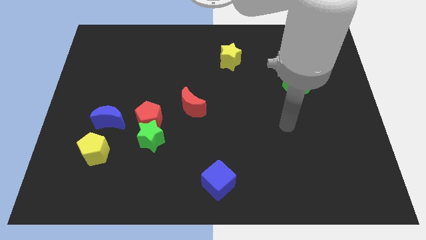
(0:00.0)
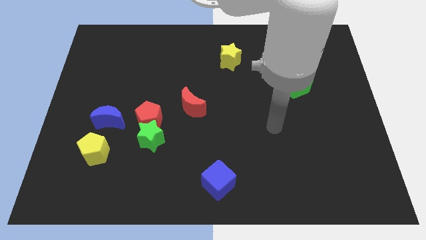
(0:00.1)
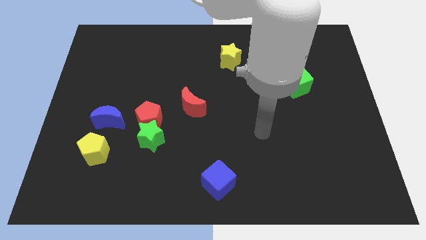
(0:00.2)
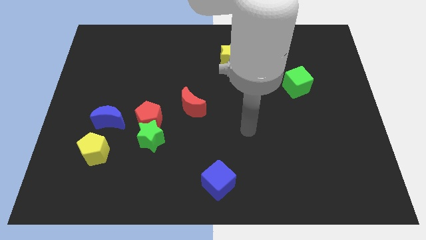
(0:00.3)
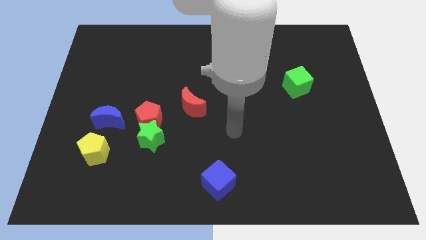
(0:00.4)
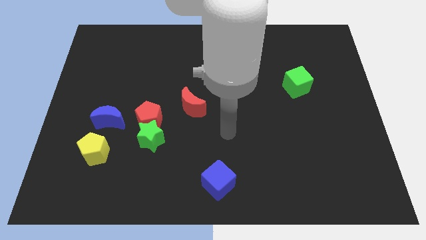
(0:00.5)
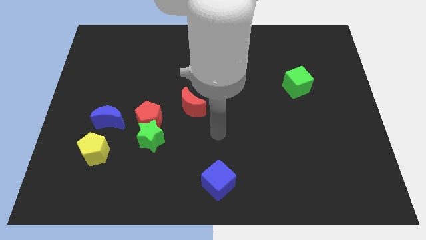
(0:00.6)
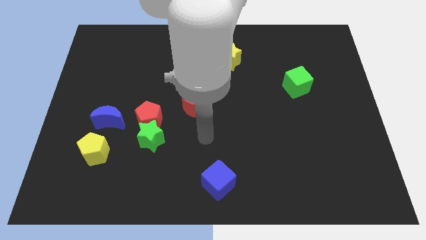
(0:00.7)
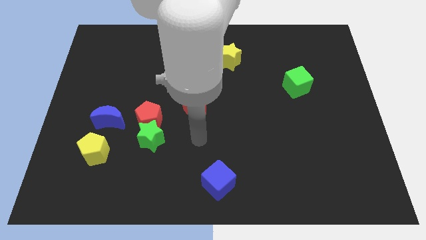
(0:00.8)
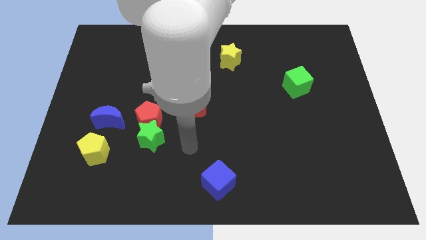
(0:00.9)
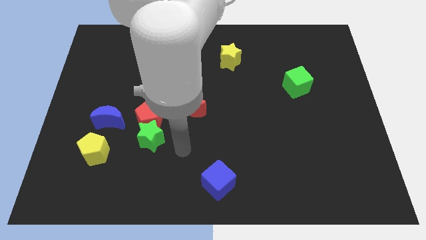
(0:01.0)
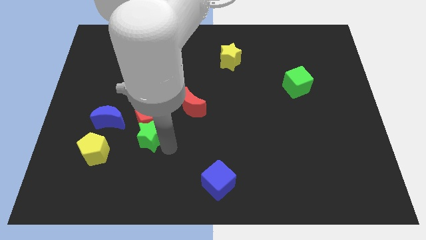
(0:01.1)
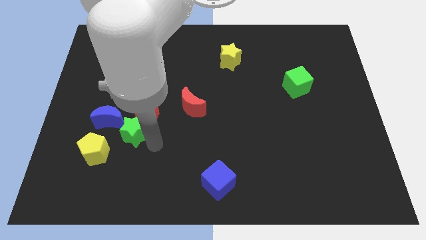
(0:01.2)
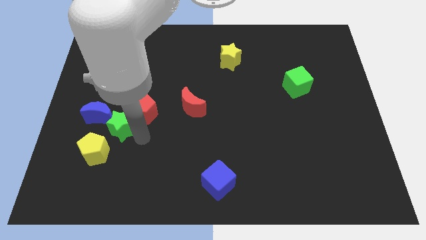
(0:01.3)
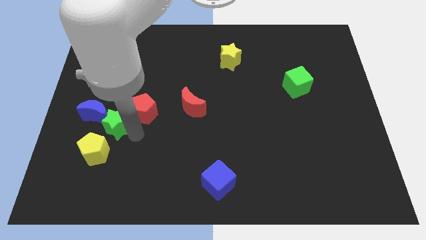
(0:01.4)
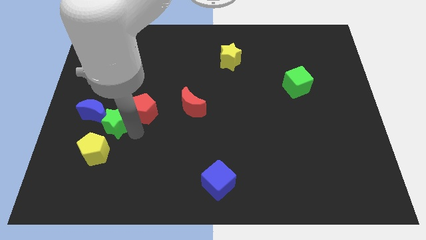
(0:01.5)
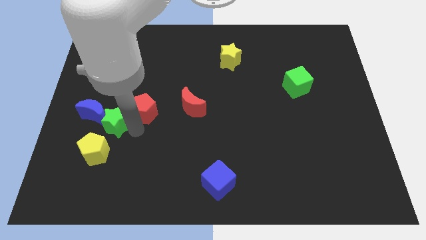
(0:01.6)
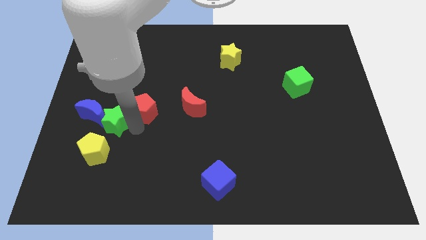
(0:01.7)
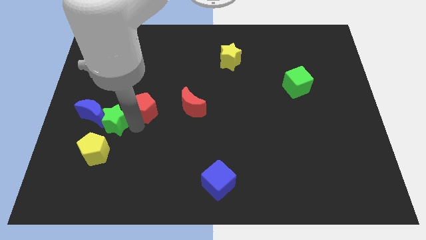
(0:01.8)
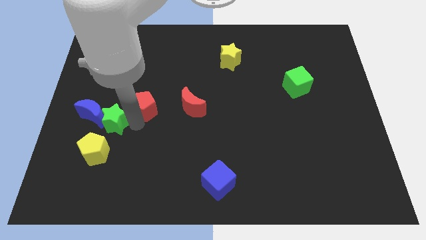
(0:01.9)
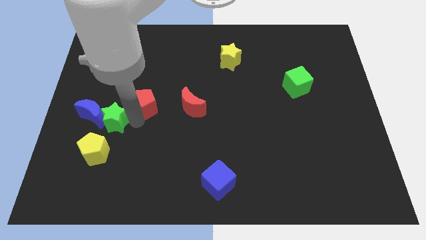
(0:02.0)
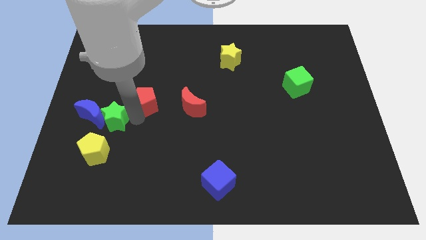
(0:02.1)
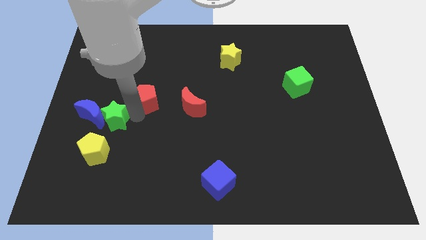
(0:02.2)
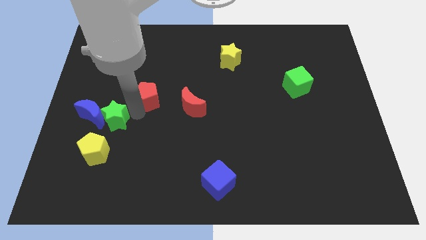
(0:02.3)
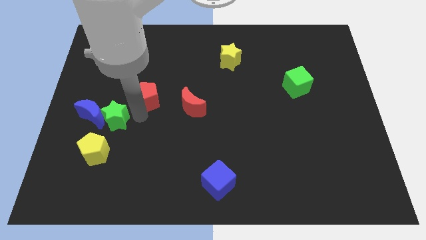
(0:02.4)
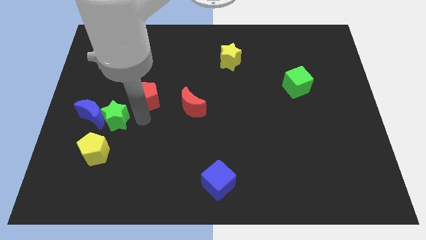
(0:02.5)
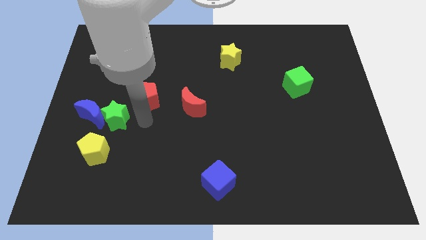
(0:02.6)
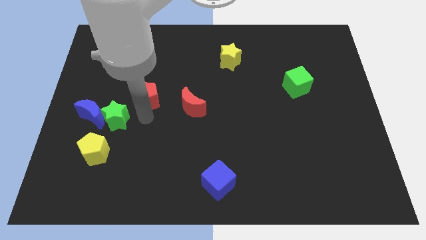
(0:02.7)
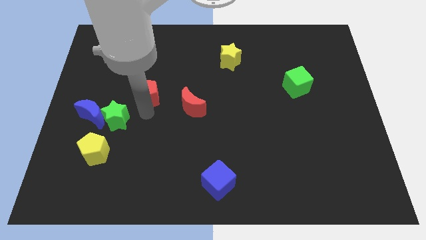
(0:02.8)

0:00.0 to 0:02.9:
slightly slide the red pentagon upwards

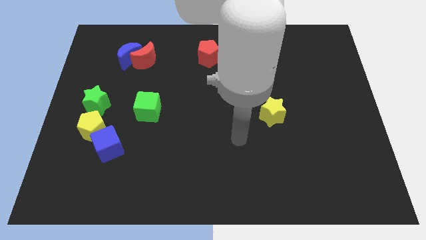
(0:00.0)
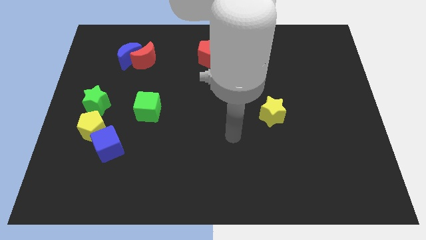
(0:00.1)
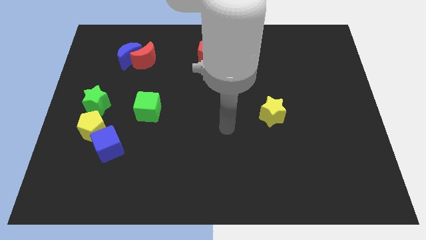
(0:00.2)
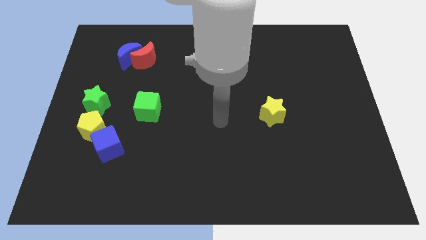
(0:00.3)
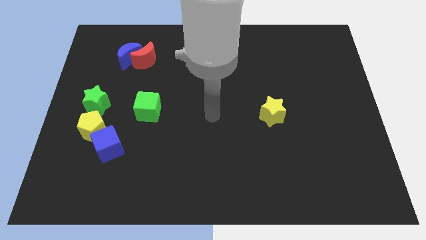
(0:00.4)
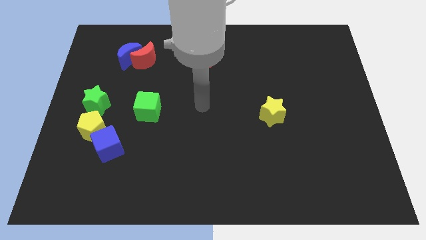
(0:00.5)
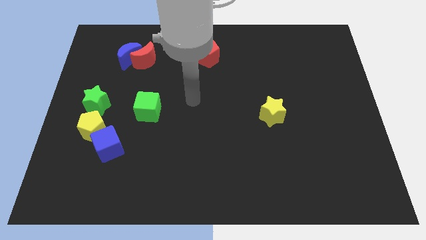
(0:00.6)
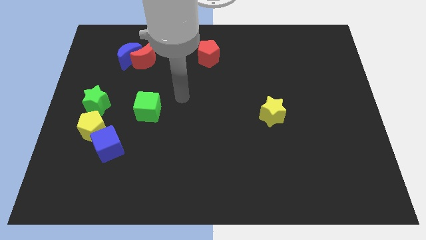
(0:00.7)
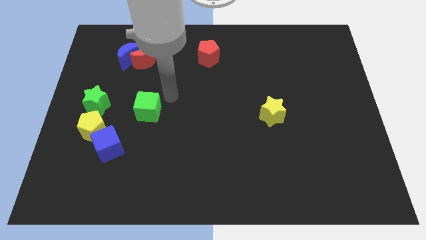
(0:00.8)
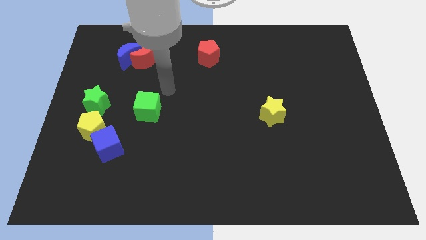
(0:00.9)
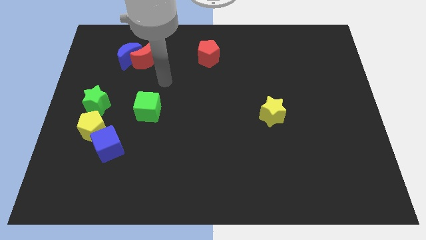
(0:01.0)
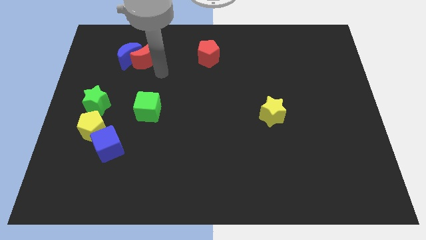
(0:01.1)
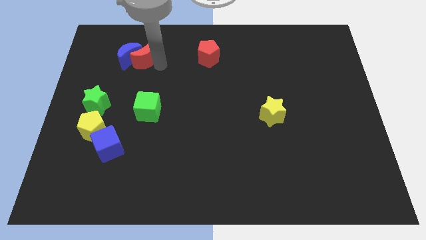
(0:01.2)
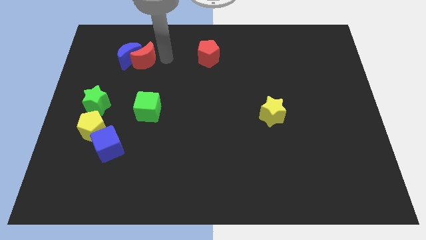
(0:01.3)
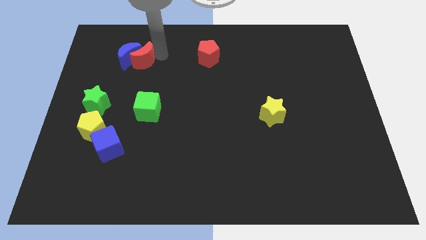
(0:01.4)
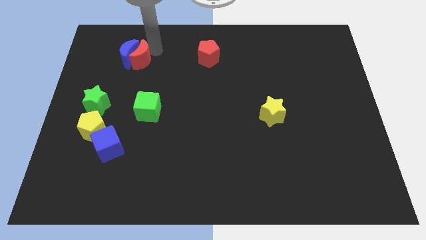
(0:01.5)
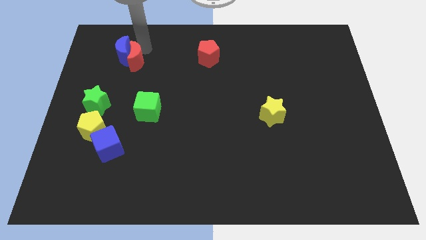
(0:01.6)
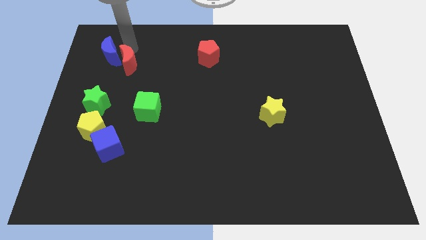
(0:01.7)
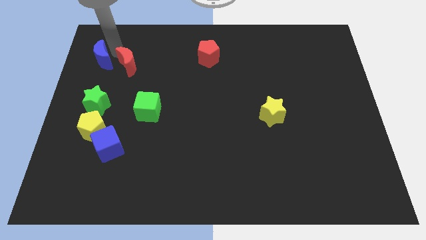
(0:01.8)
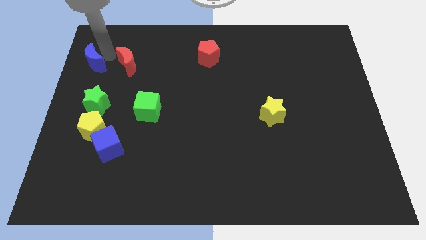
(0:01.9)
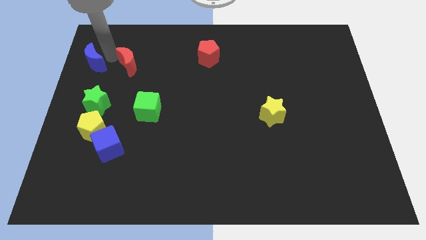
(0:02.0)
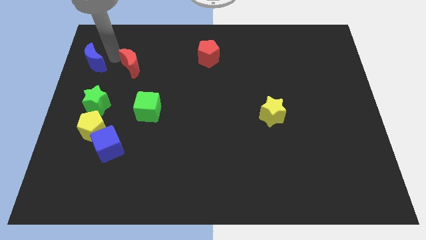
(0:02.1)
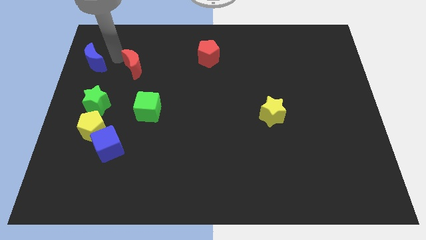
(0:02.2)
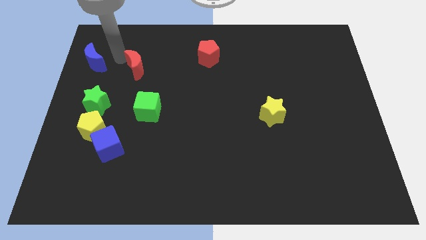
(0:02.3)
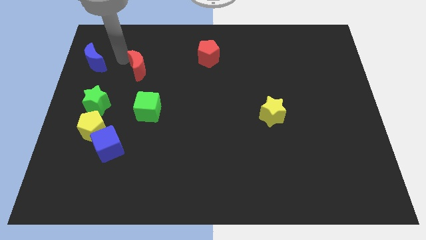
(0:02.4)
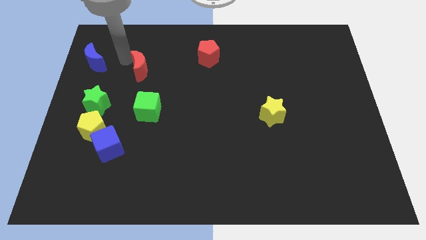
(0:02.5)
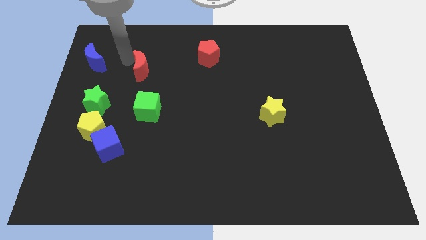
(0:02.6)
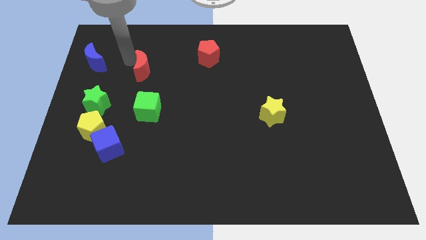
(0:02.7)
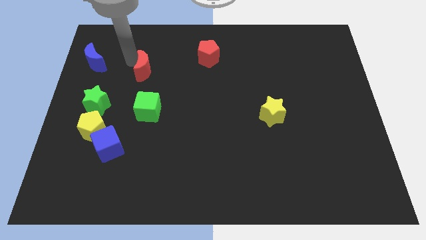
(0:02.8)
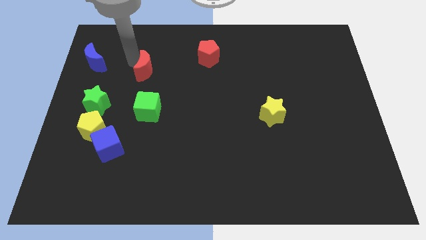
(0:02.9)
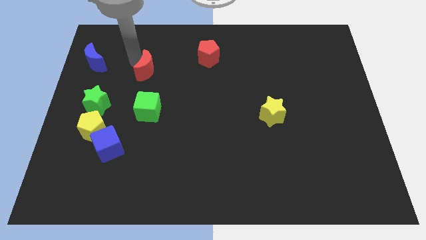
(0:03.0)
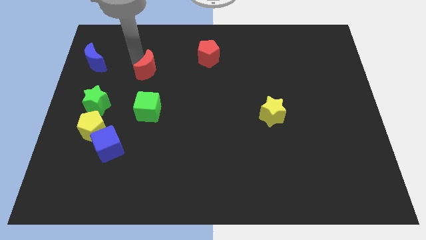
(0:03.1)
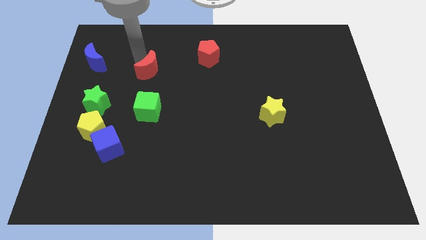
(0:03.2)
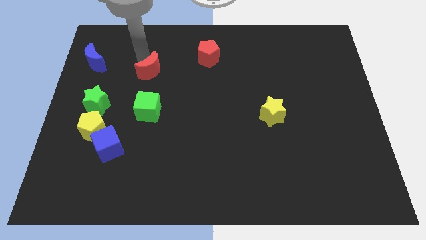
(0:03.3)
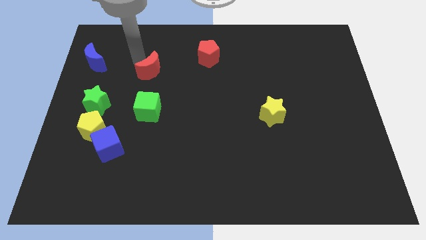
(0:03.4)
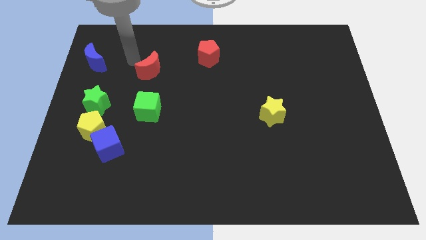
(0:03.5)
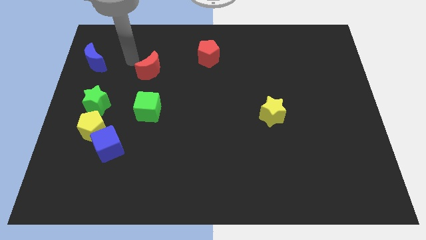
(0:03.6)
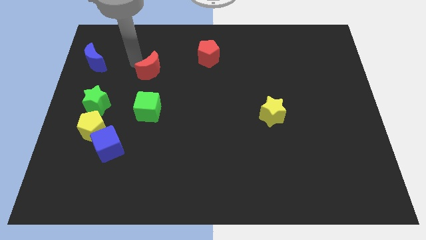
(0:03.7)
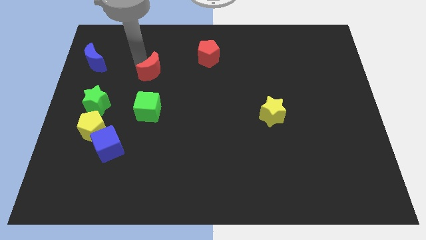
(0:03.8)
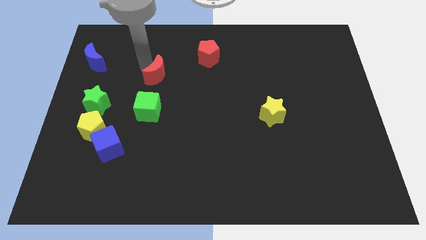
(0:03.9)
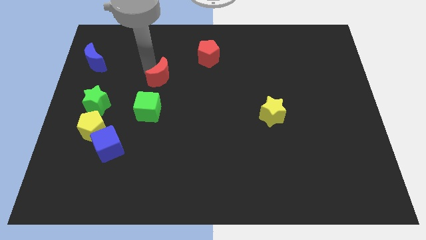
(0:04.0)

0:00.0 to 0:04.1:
move the red moon down and to the right slightly

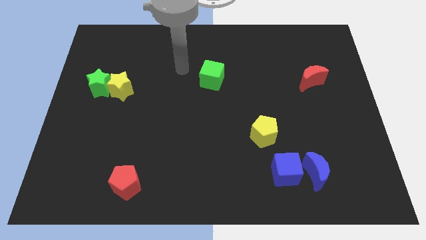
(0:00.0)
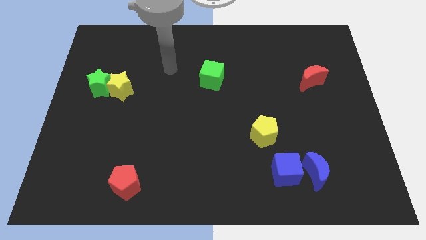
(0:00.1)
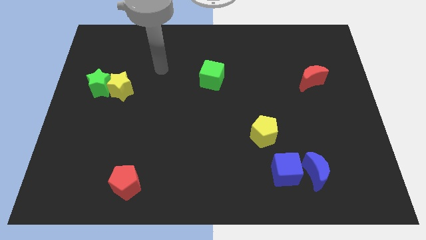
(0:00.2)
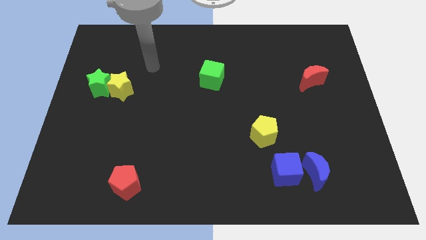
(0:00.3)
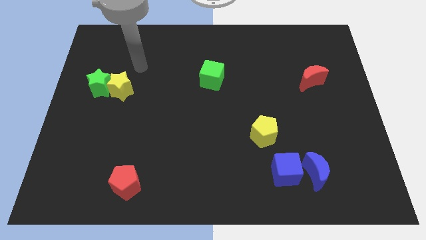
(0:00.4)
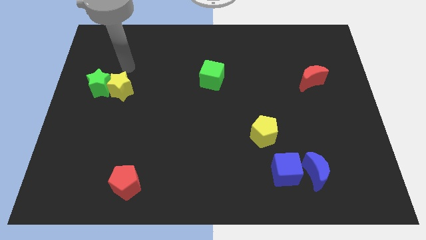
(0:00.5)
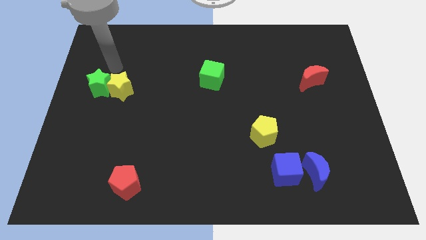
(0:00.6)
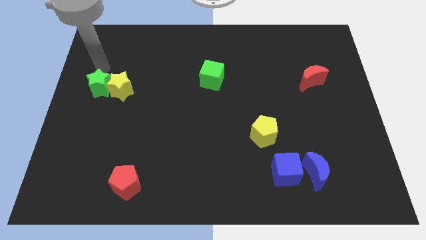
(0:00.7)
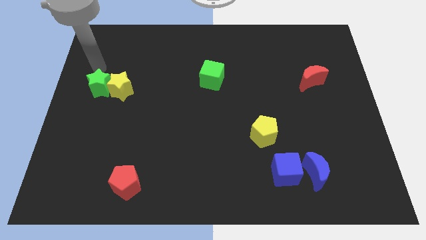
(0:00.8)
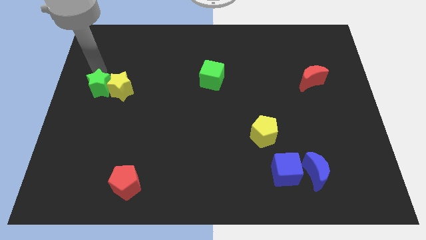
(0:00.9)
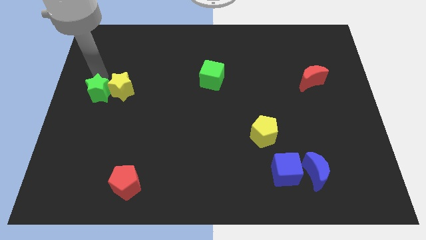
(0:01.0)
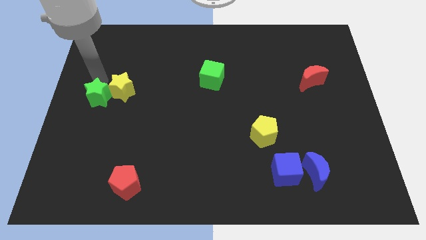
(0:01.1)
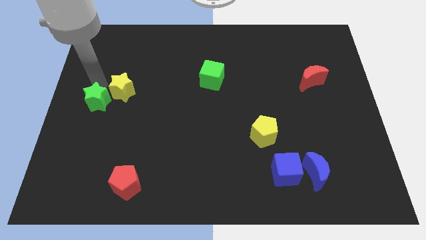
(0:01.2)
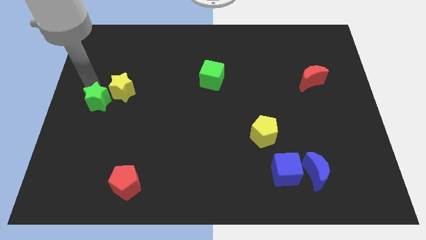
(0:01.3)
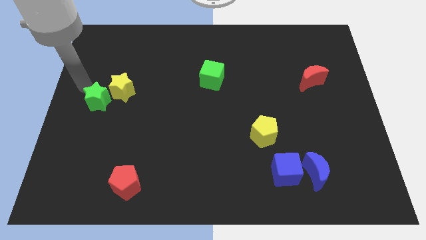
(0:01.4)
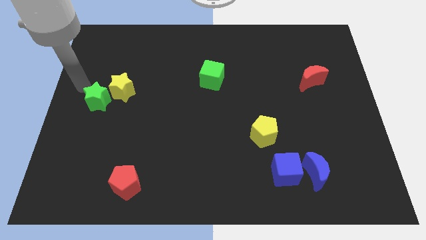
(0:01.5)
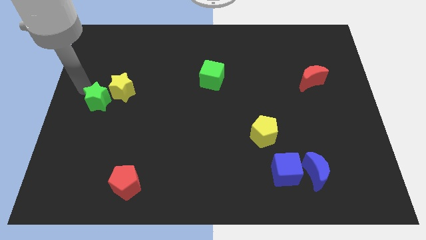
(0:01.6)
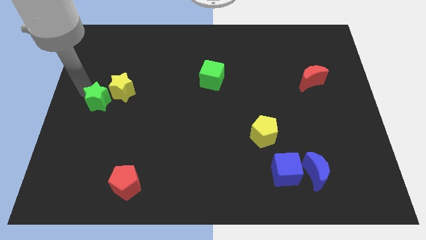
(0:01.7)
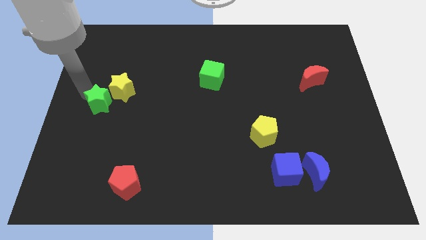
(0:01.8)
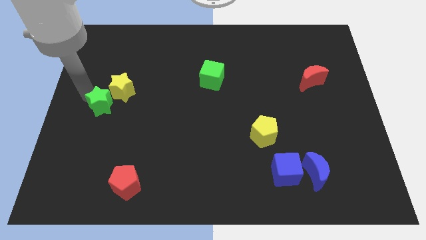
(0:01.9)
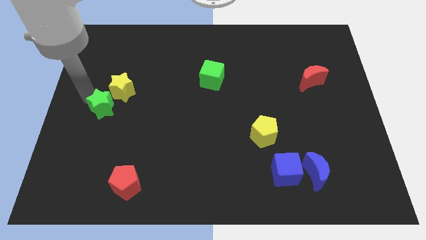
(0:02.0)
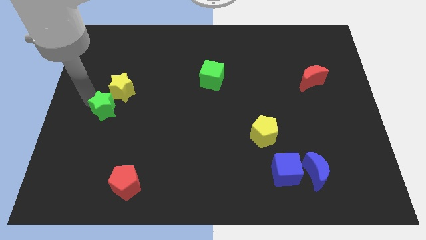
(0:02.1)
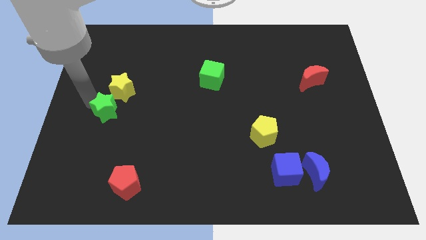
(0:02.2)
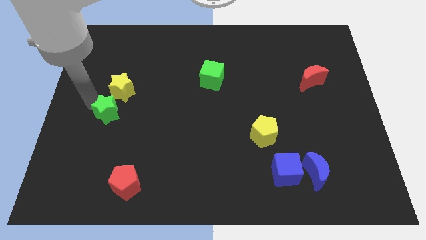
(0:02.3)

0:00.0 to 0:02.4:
move the green star a little diagonally downwards and to the right
